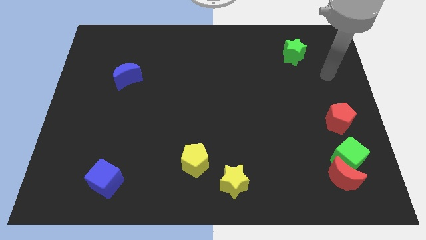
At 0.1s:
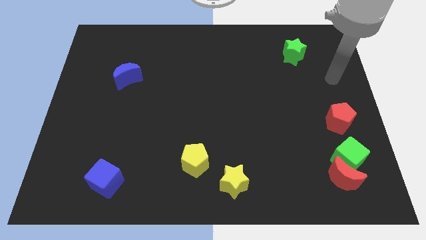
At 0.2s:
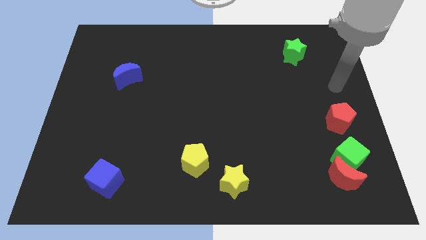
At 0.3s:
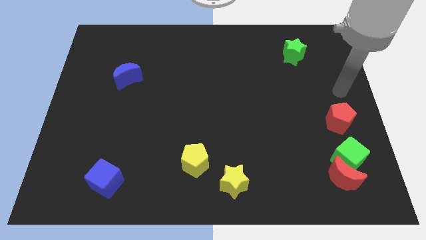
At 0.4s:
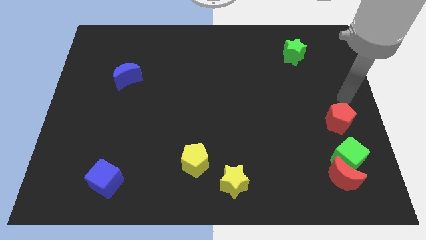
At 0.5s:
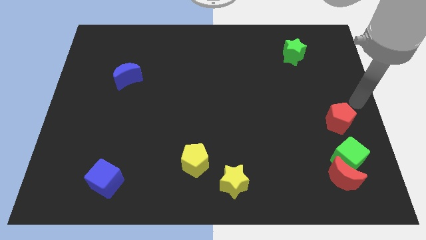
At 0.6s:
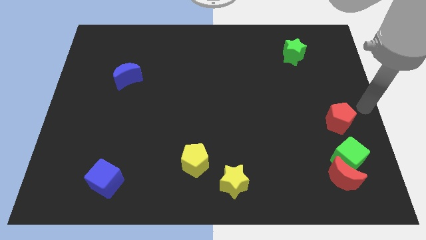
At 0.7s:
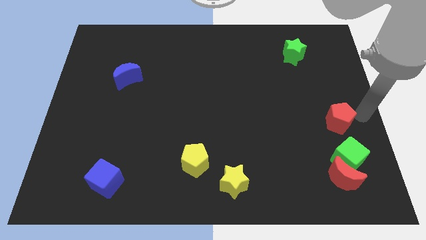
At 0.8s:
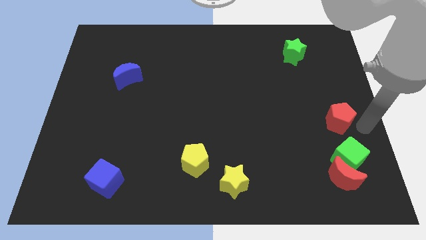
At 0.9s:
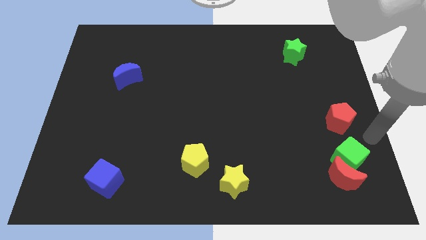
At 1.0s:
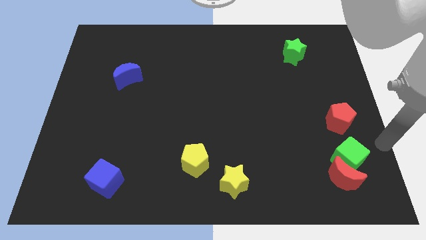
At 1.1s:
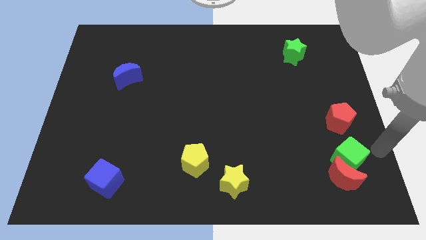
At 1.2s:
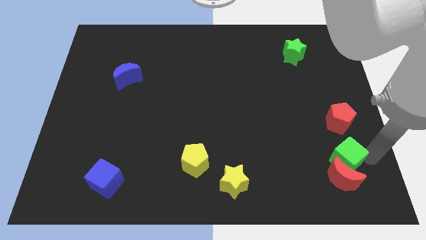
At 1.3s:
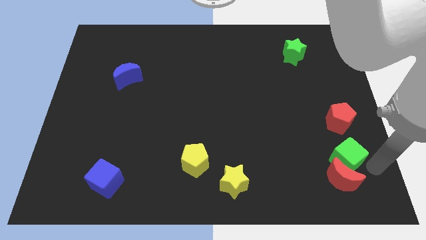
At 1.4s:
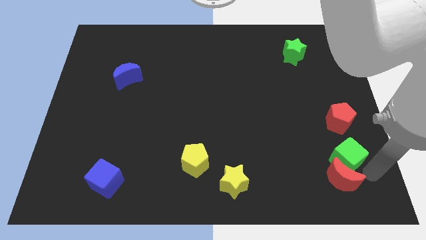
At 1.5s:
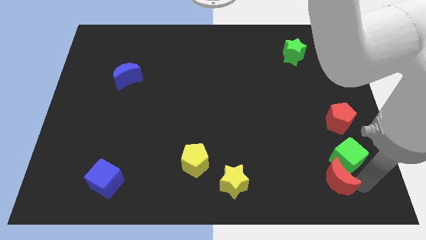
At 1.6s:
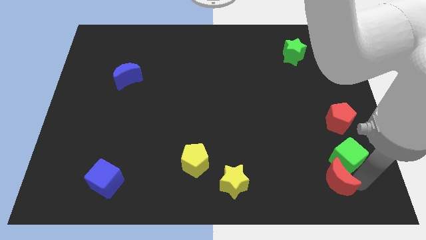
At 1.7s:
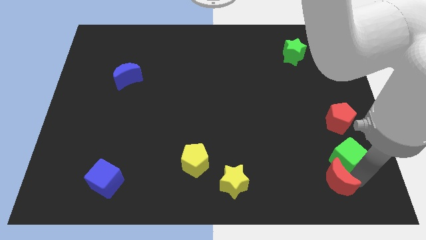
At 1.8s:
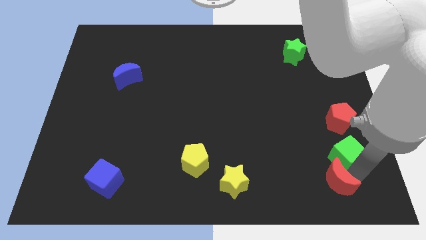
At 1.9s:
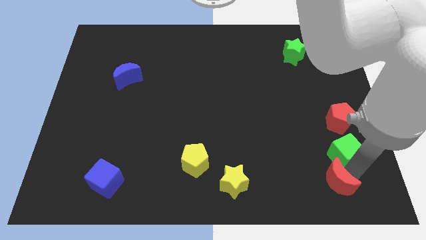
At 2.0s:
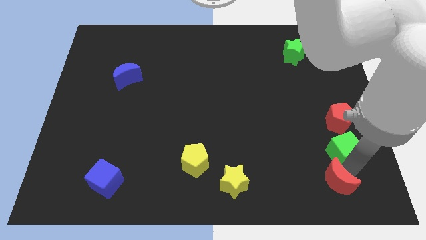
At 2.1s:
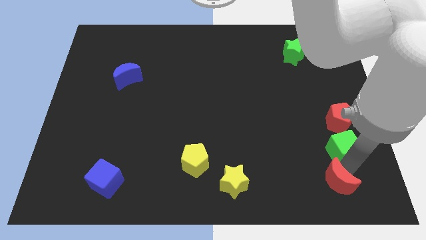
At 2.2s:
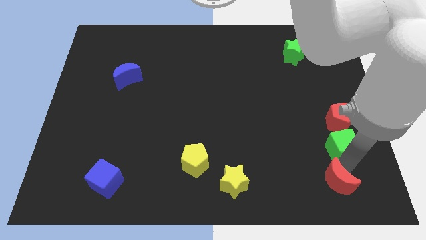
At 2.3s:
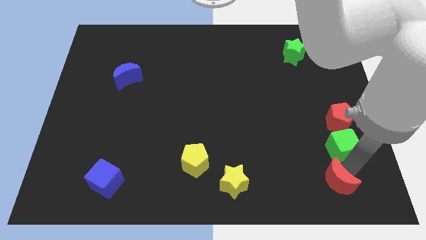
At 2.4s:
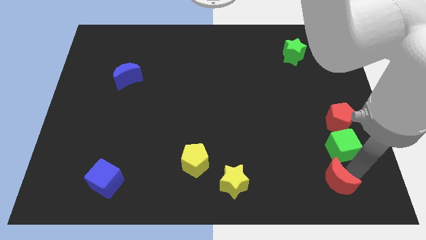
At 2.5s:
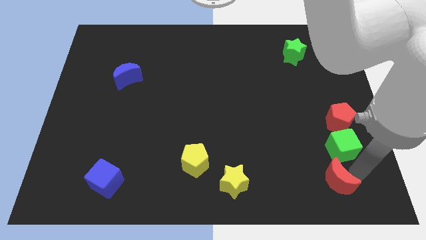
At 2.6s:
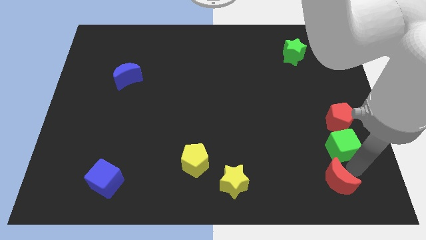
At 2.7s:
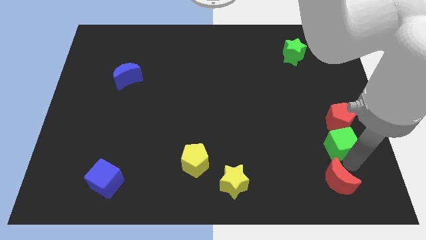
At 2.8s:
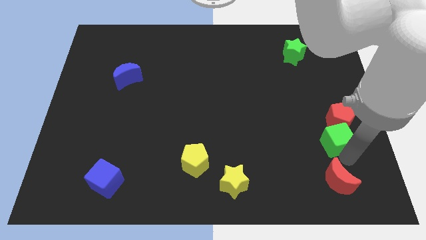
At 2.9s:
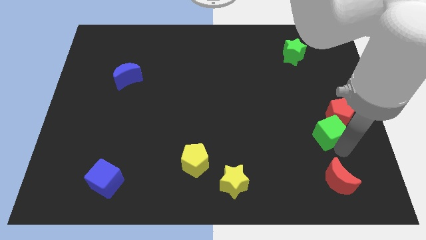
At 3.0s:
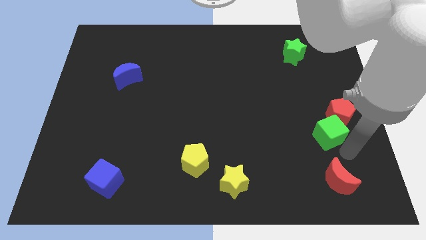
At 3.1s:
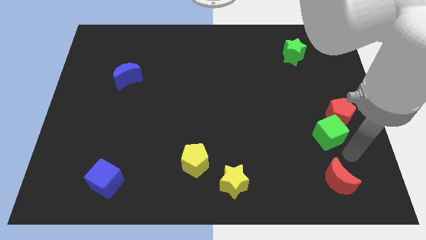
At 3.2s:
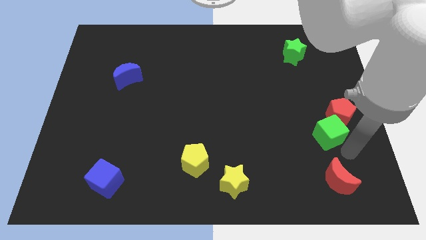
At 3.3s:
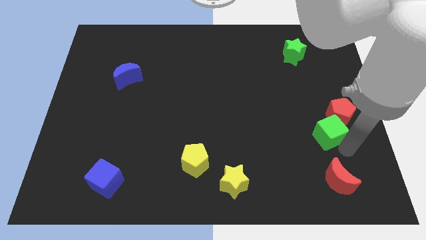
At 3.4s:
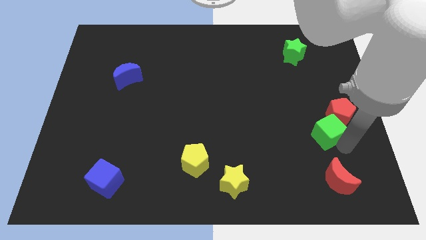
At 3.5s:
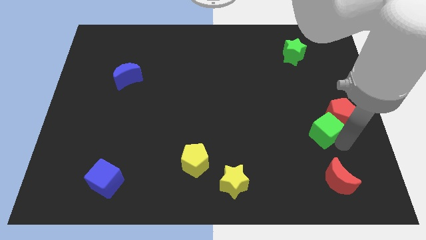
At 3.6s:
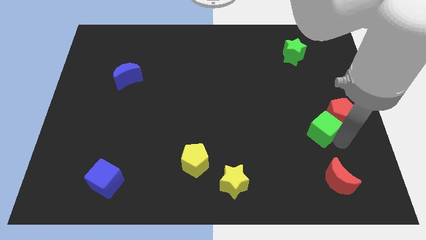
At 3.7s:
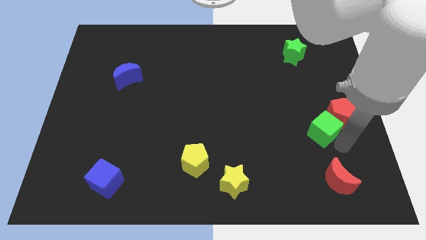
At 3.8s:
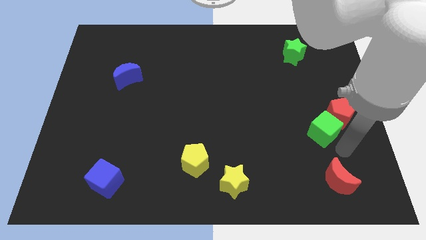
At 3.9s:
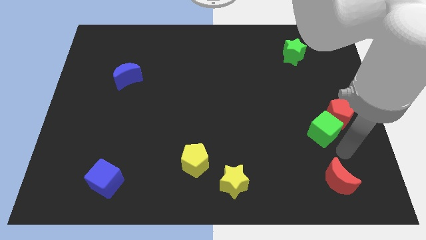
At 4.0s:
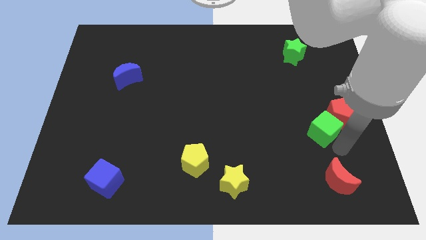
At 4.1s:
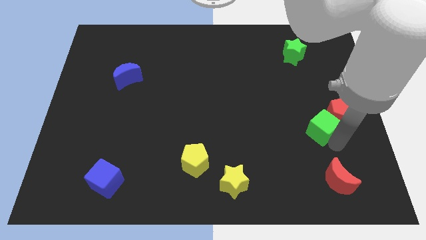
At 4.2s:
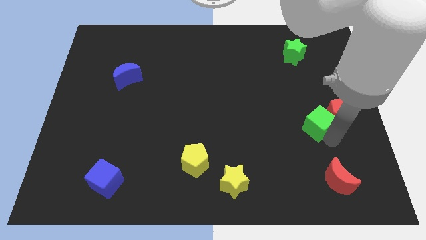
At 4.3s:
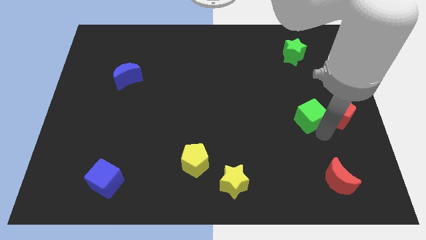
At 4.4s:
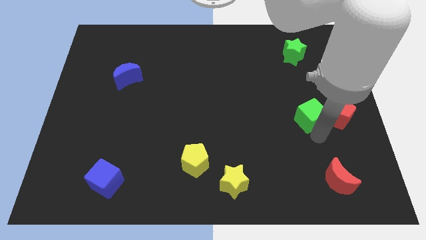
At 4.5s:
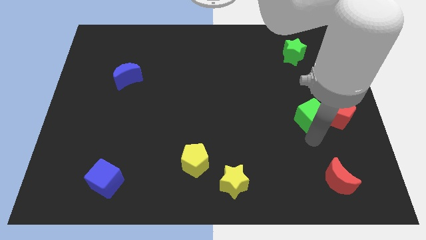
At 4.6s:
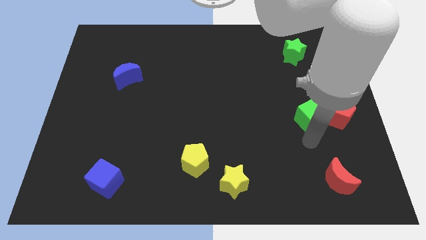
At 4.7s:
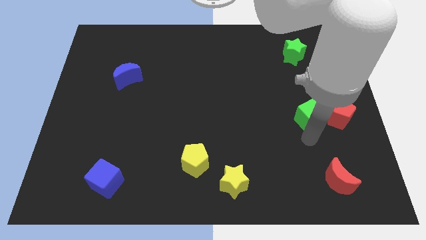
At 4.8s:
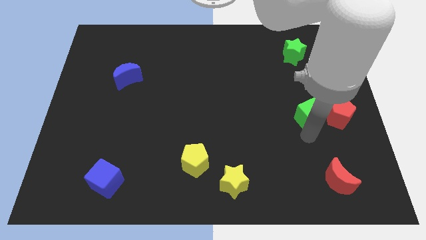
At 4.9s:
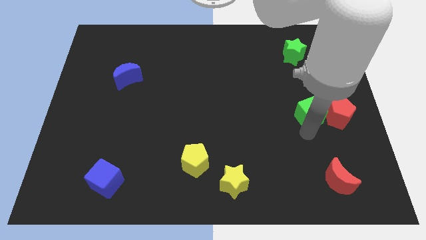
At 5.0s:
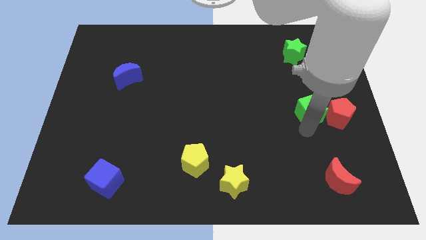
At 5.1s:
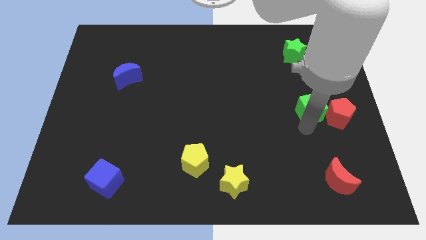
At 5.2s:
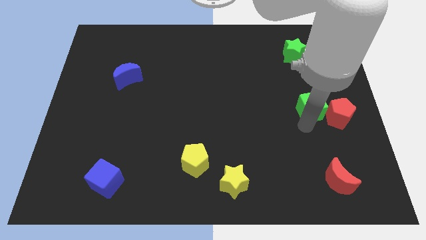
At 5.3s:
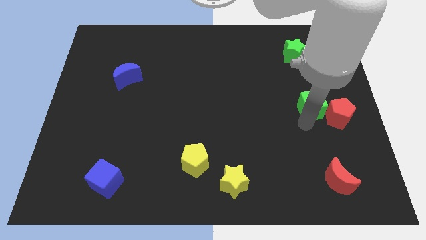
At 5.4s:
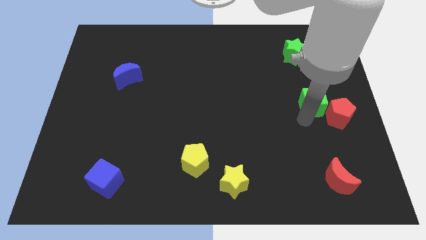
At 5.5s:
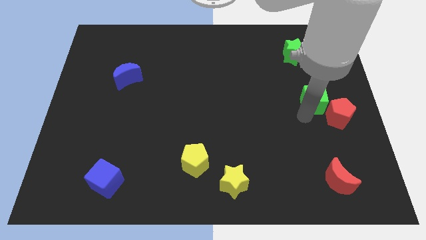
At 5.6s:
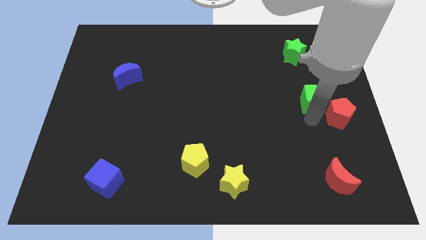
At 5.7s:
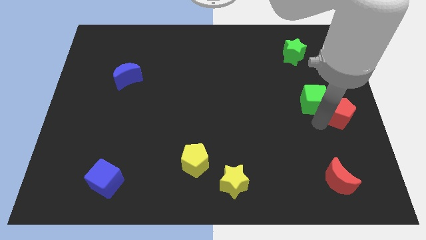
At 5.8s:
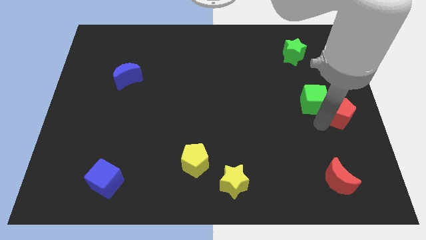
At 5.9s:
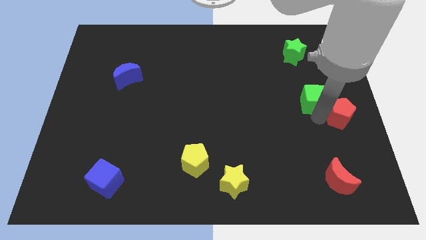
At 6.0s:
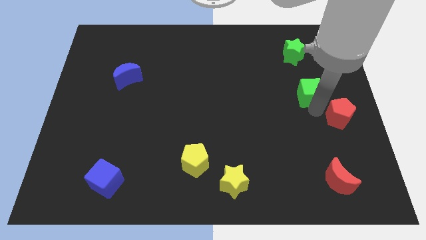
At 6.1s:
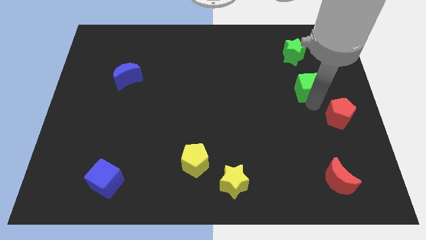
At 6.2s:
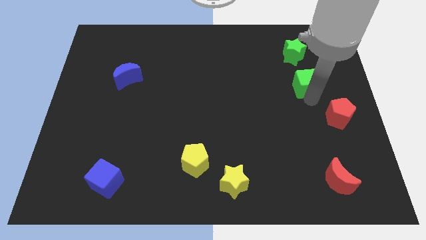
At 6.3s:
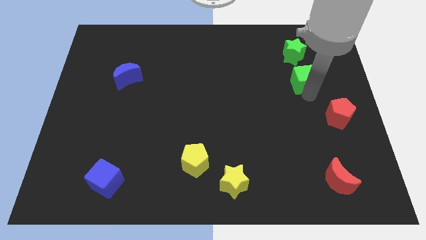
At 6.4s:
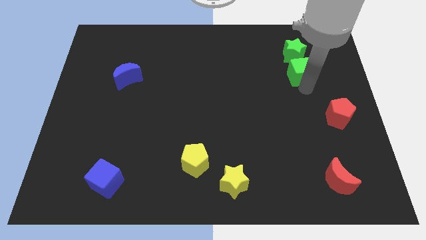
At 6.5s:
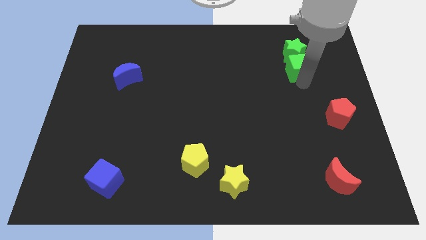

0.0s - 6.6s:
slide the green cube close to the green star
